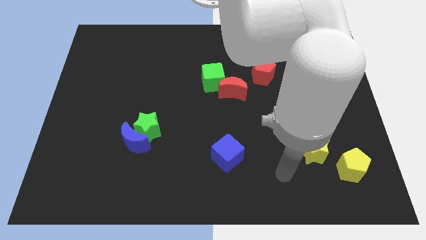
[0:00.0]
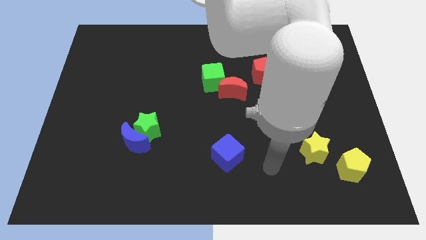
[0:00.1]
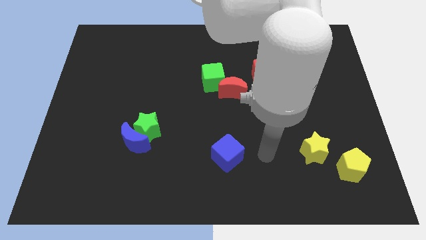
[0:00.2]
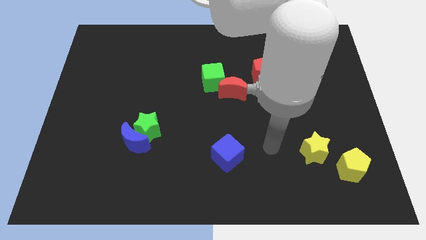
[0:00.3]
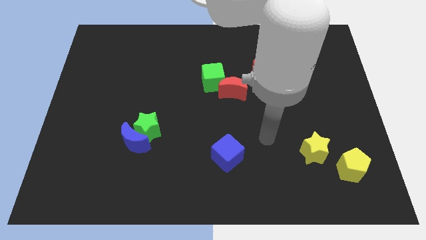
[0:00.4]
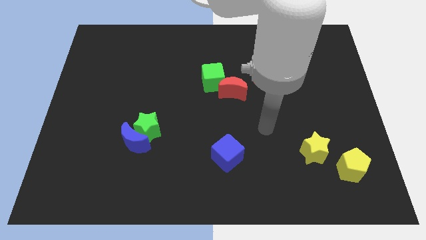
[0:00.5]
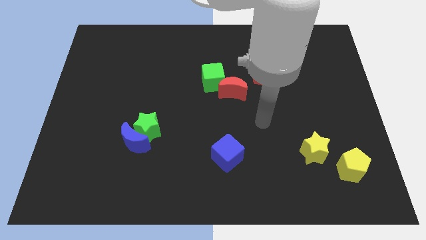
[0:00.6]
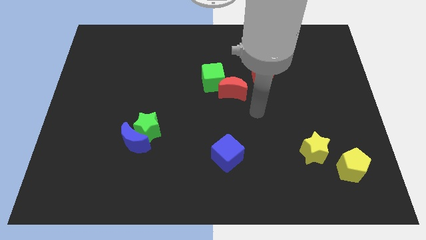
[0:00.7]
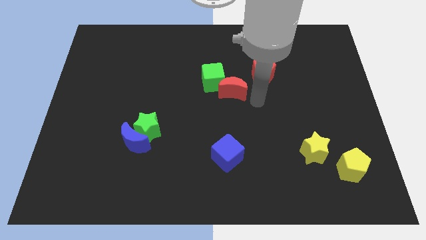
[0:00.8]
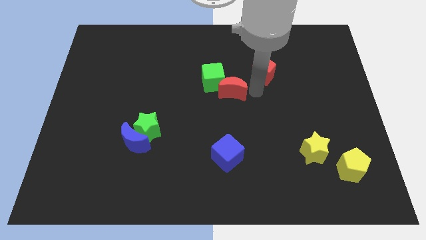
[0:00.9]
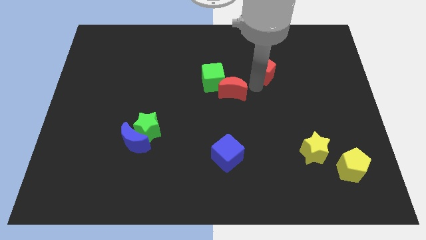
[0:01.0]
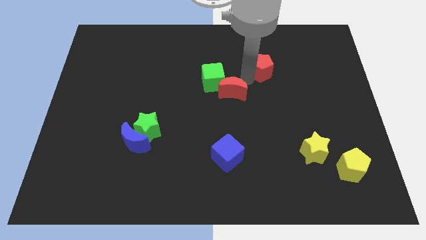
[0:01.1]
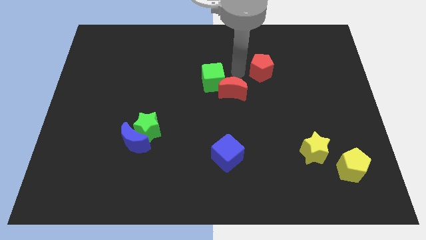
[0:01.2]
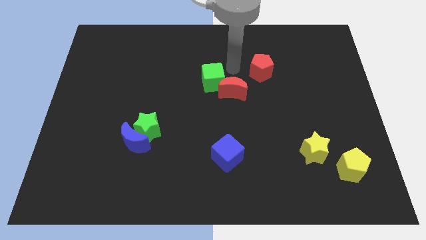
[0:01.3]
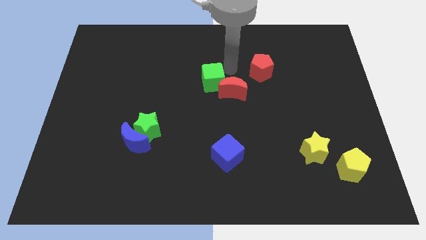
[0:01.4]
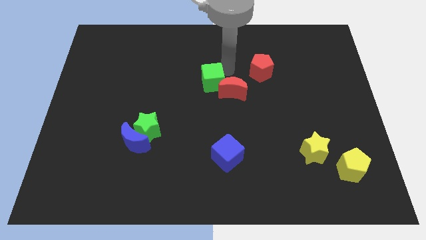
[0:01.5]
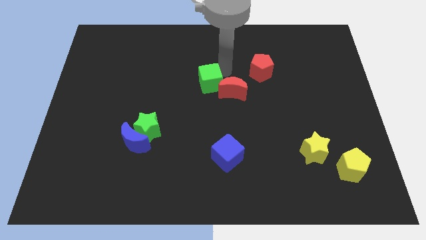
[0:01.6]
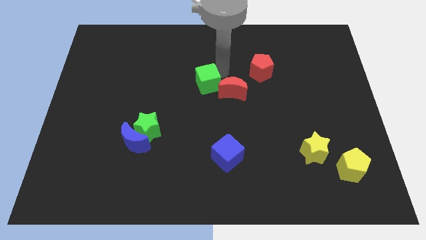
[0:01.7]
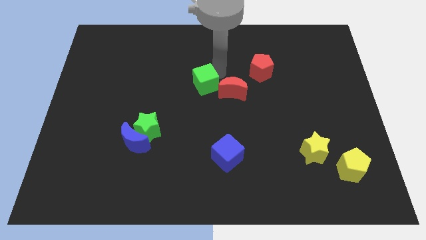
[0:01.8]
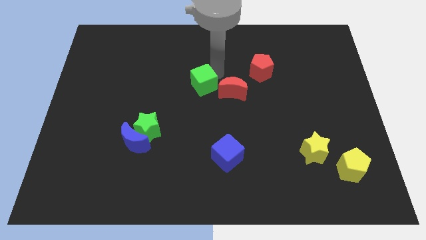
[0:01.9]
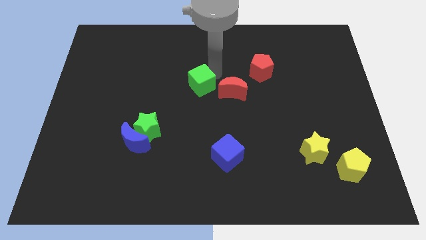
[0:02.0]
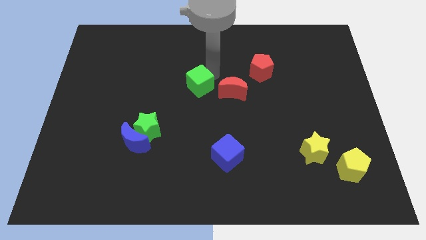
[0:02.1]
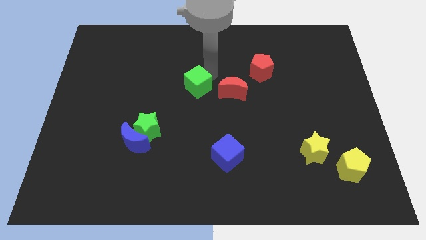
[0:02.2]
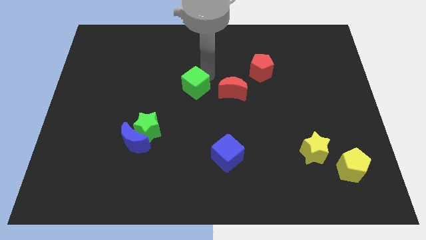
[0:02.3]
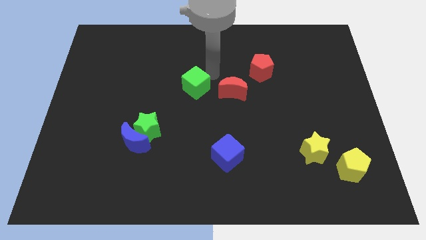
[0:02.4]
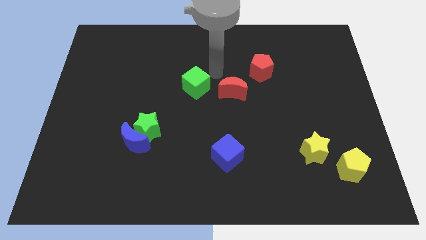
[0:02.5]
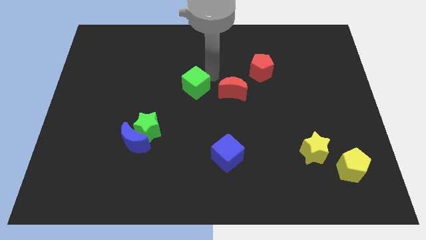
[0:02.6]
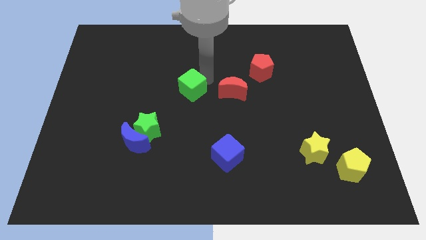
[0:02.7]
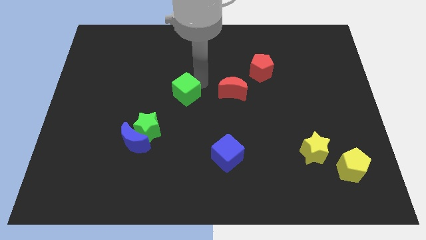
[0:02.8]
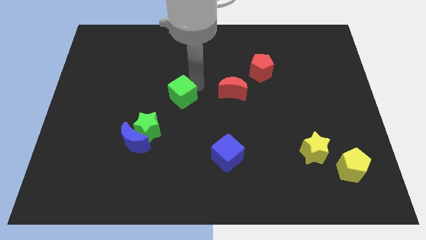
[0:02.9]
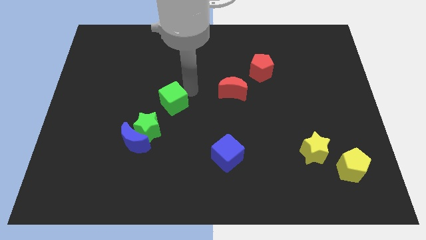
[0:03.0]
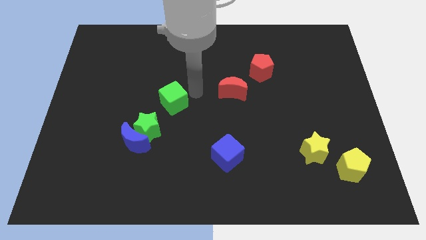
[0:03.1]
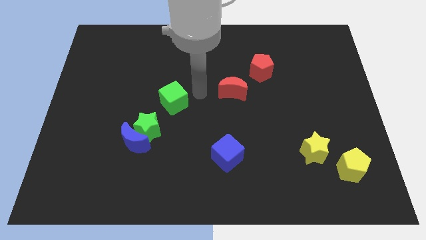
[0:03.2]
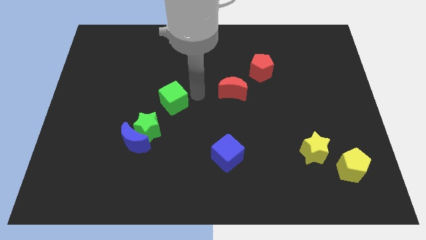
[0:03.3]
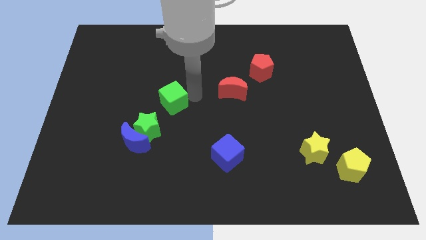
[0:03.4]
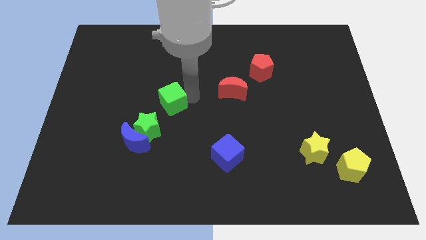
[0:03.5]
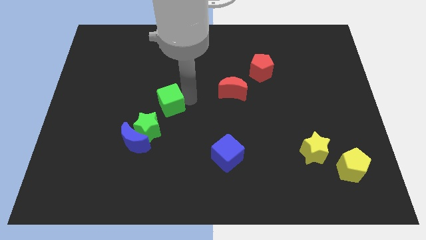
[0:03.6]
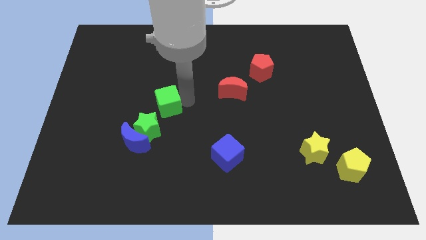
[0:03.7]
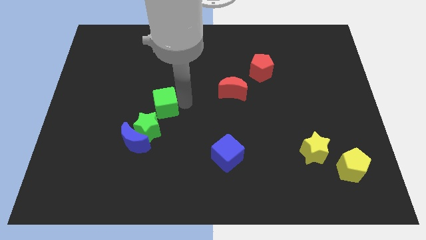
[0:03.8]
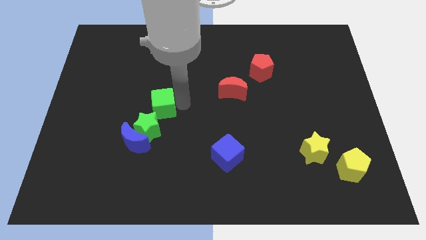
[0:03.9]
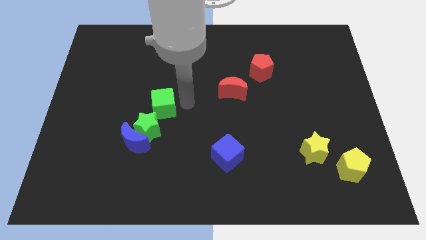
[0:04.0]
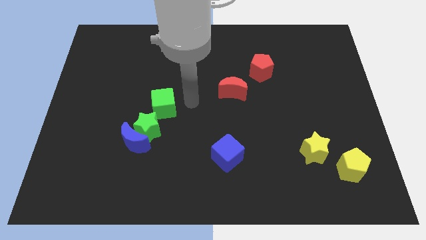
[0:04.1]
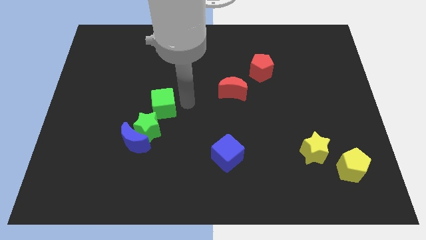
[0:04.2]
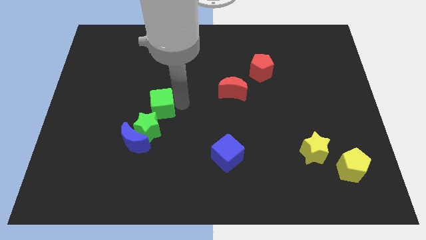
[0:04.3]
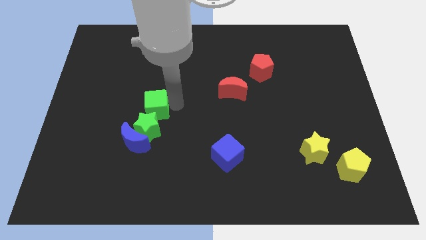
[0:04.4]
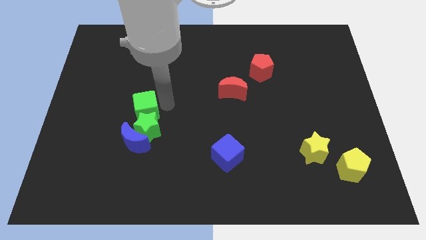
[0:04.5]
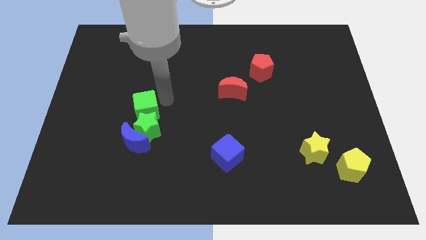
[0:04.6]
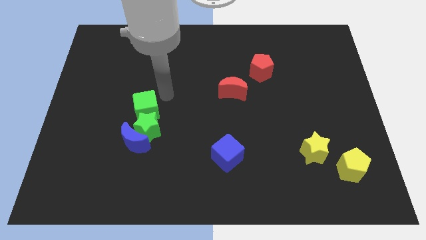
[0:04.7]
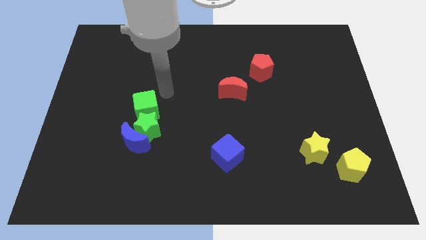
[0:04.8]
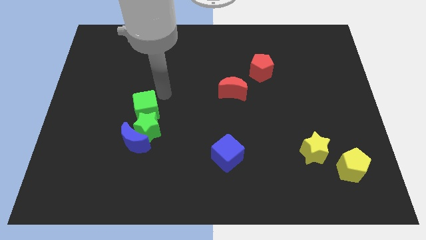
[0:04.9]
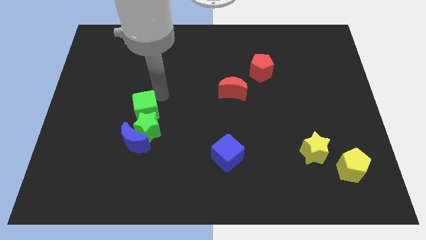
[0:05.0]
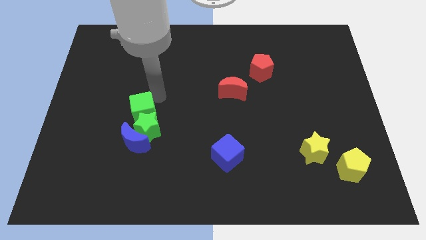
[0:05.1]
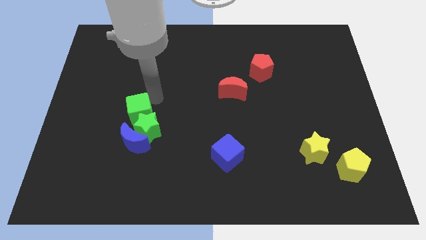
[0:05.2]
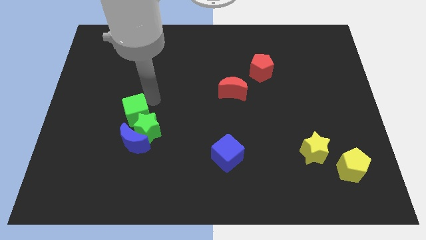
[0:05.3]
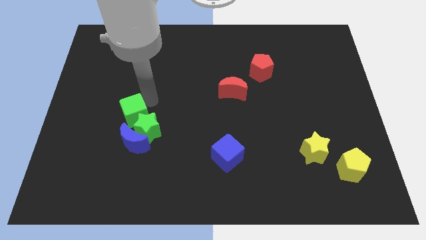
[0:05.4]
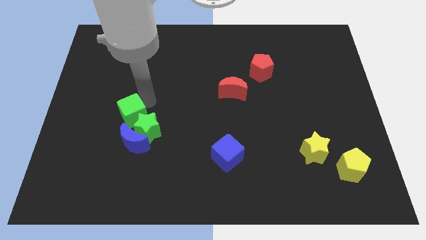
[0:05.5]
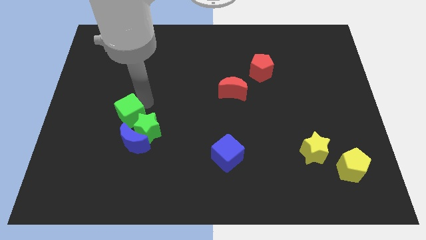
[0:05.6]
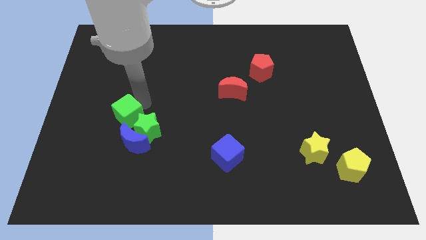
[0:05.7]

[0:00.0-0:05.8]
push the green cube down and then to the left

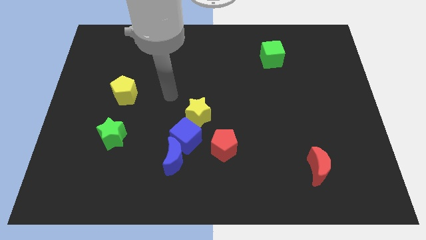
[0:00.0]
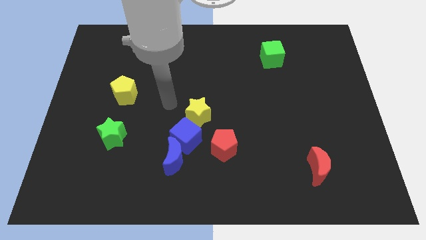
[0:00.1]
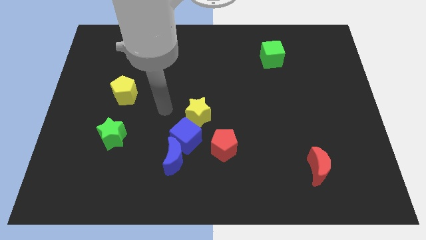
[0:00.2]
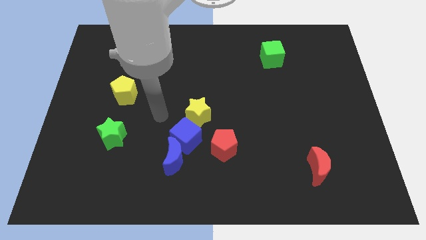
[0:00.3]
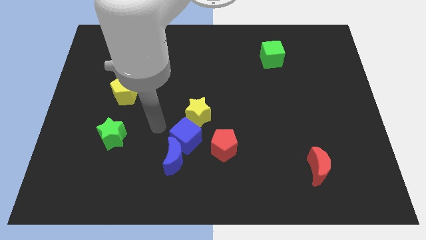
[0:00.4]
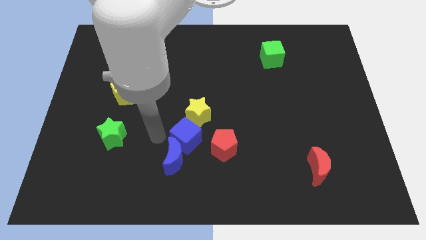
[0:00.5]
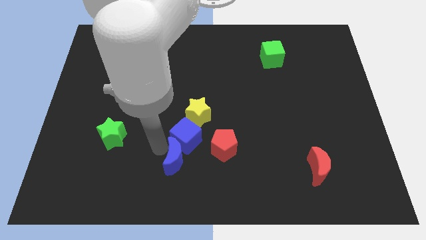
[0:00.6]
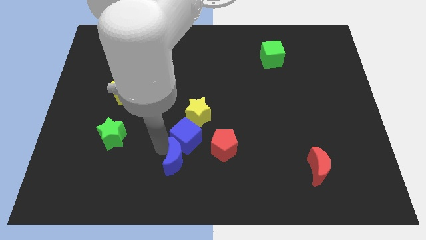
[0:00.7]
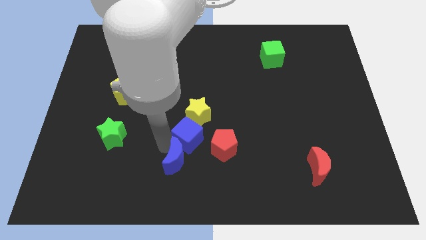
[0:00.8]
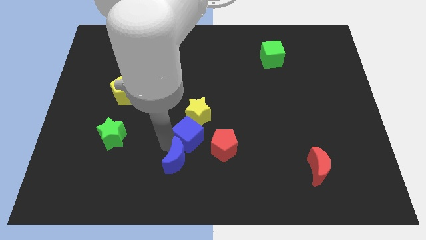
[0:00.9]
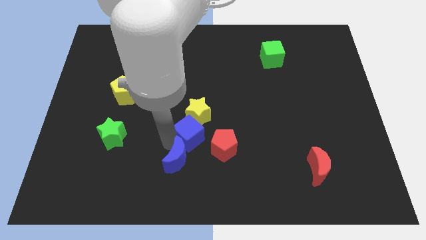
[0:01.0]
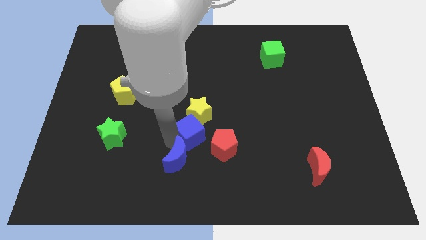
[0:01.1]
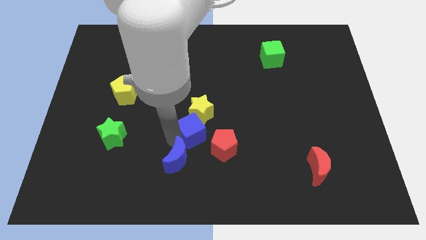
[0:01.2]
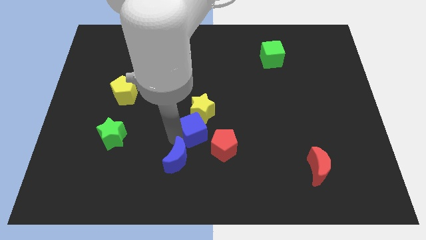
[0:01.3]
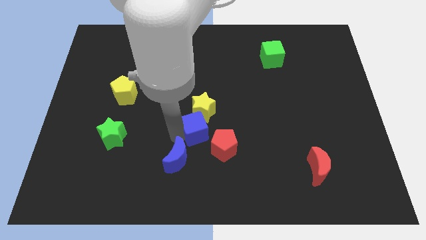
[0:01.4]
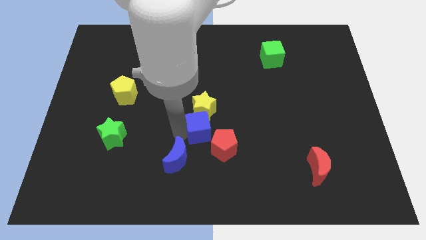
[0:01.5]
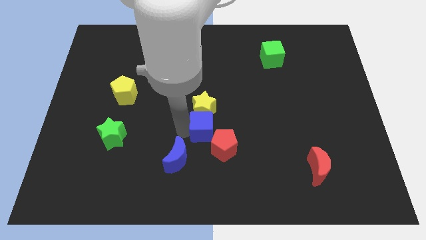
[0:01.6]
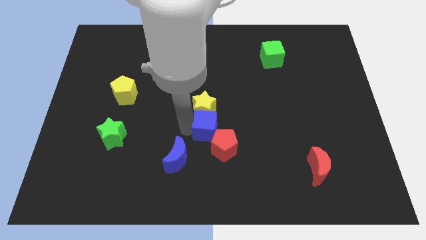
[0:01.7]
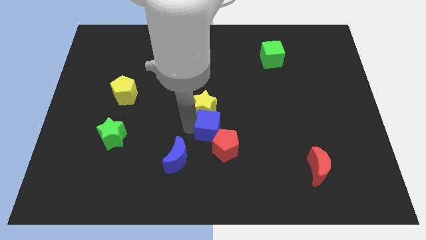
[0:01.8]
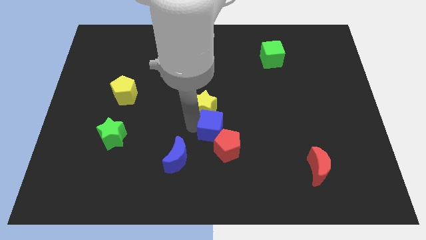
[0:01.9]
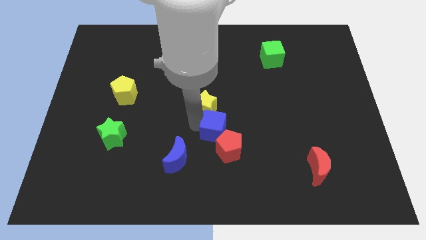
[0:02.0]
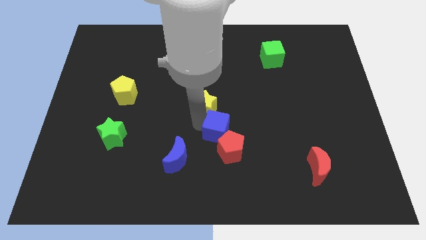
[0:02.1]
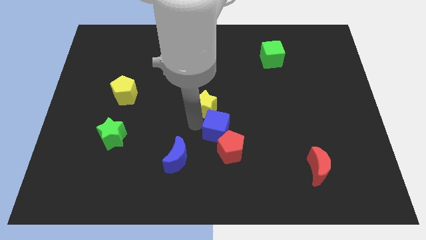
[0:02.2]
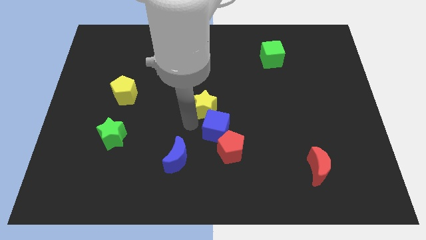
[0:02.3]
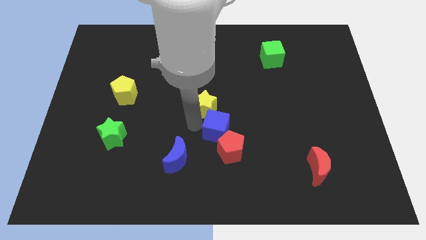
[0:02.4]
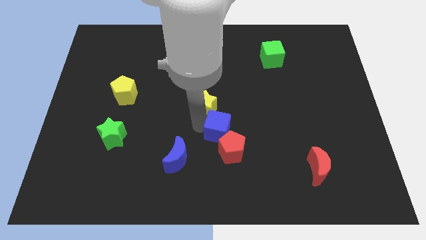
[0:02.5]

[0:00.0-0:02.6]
move the blue cube right somewhat
